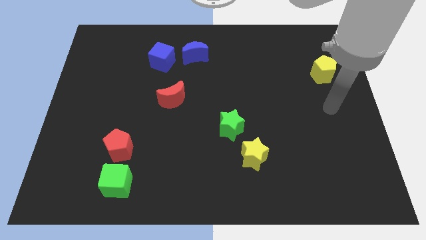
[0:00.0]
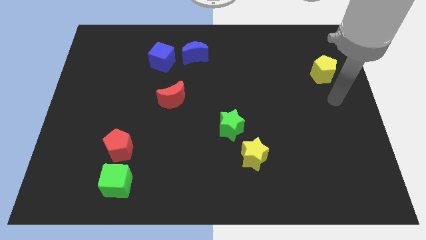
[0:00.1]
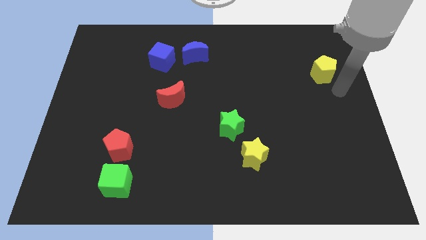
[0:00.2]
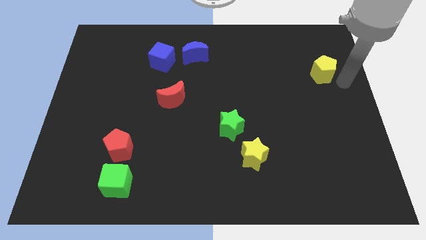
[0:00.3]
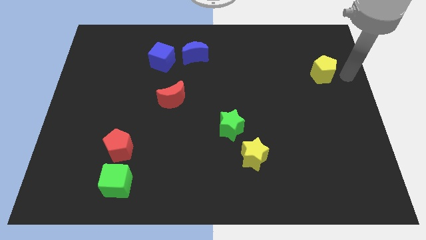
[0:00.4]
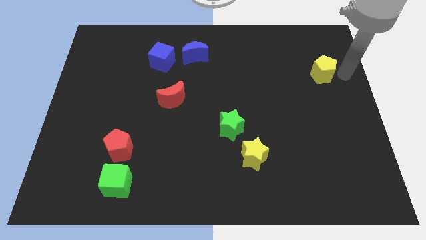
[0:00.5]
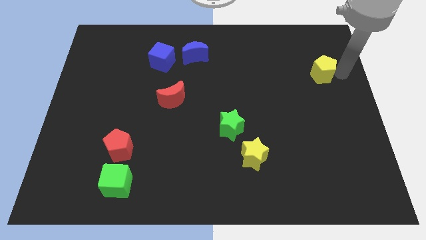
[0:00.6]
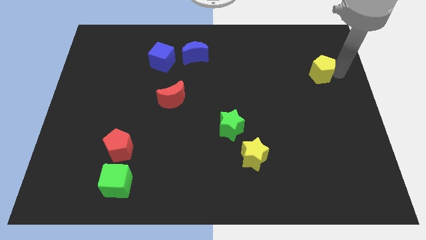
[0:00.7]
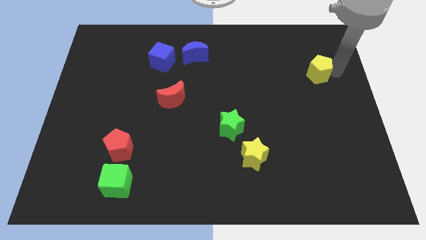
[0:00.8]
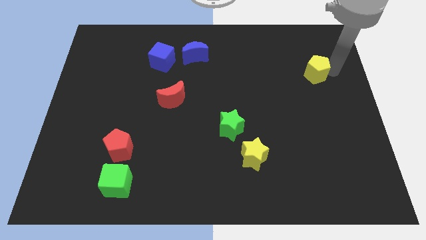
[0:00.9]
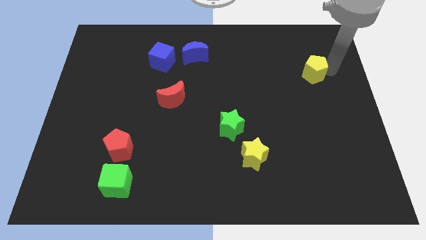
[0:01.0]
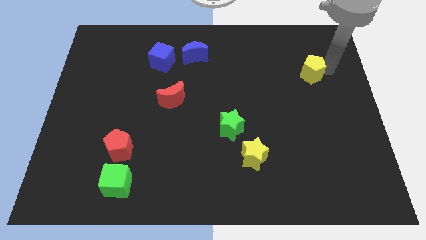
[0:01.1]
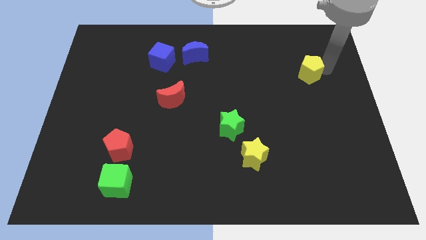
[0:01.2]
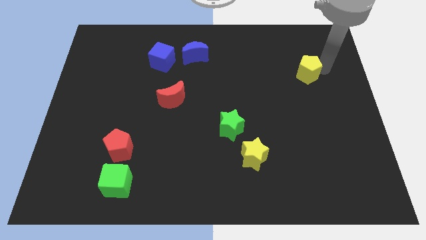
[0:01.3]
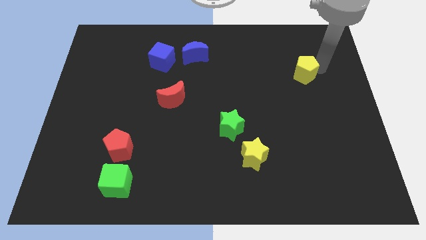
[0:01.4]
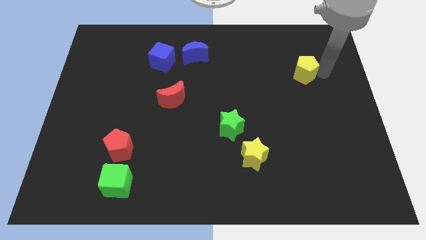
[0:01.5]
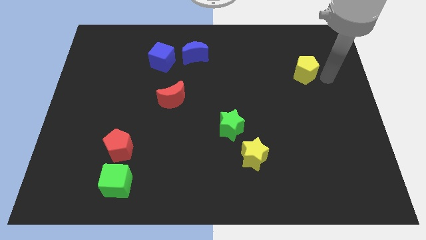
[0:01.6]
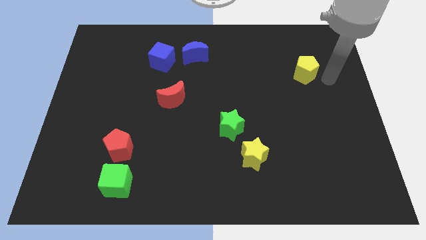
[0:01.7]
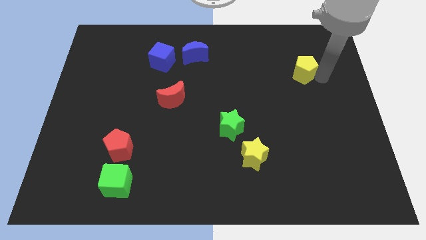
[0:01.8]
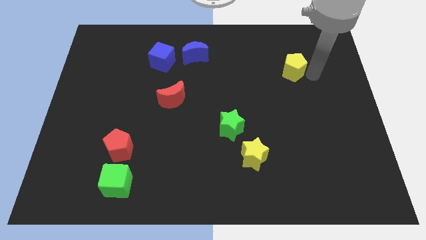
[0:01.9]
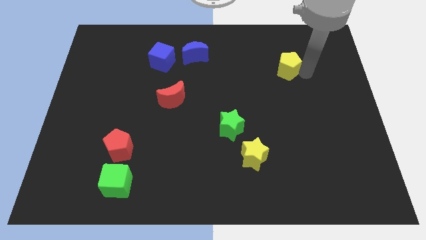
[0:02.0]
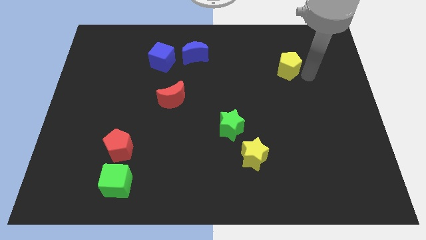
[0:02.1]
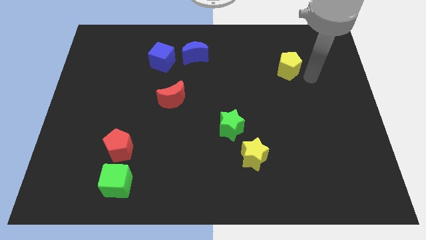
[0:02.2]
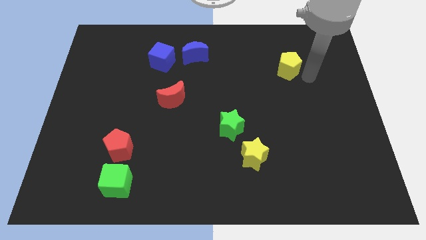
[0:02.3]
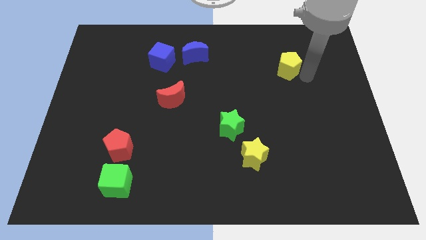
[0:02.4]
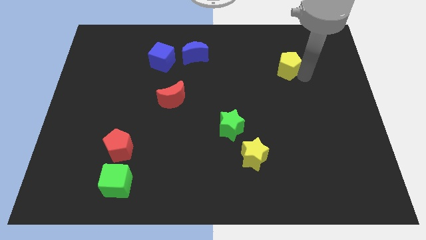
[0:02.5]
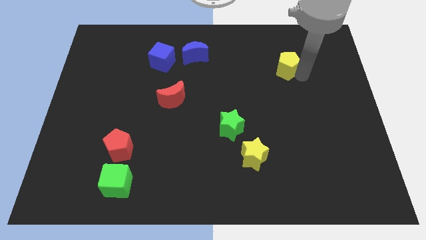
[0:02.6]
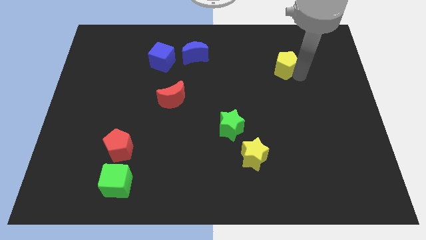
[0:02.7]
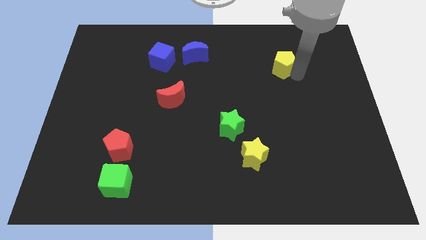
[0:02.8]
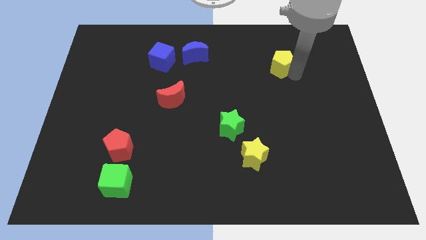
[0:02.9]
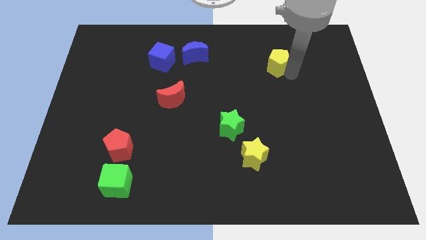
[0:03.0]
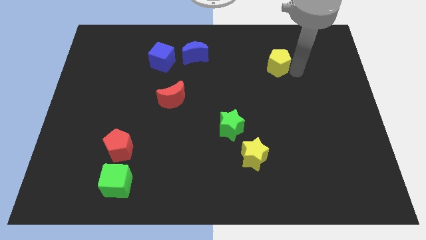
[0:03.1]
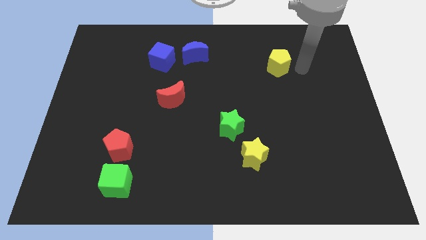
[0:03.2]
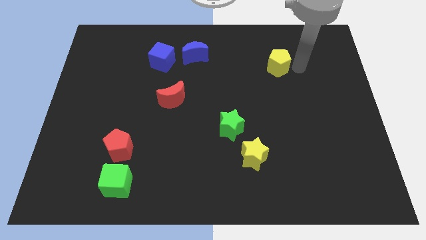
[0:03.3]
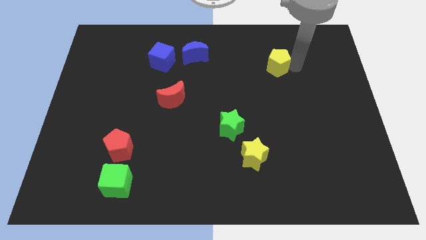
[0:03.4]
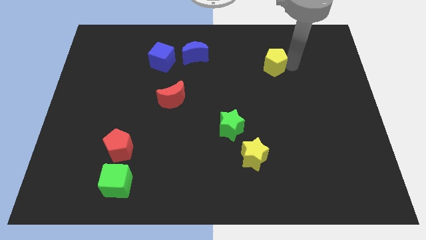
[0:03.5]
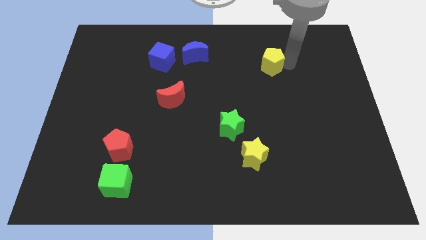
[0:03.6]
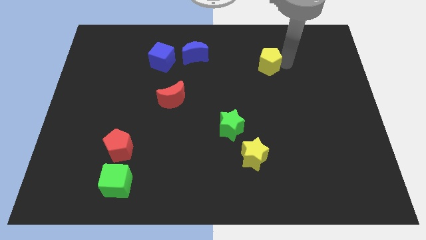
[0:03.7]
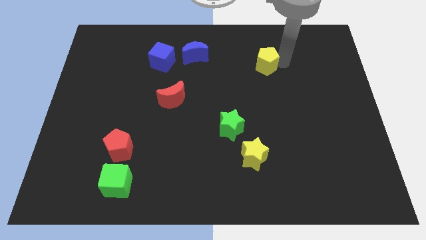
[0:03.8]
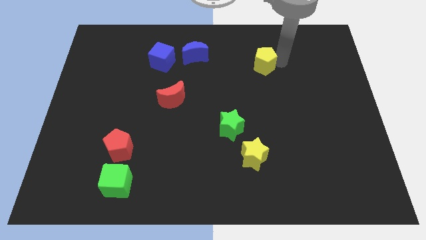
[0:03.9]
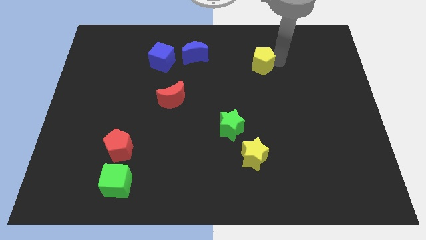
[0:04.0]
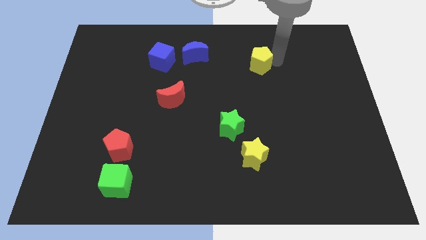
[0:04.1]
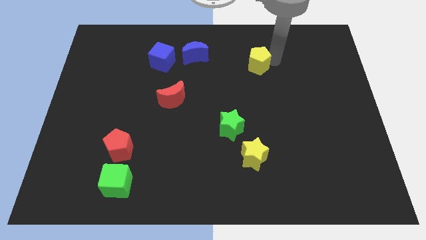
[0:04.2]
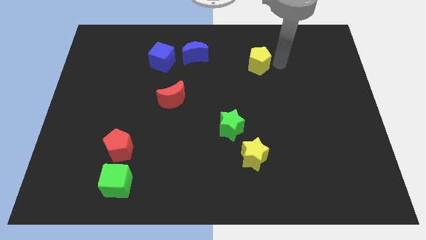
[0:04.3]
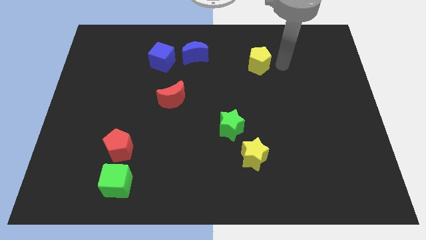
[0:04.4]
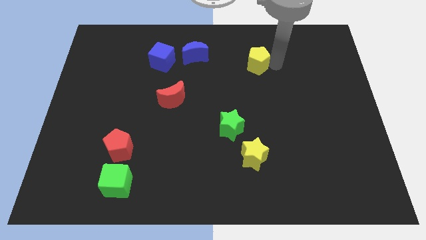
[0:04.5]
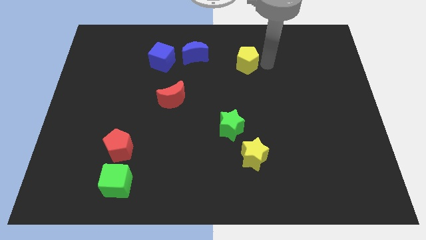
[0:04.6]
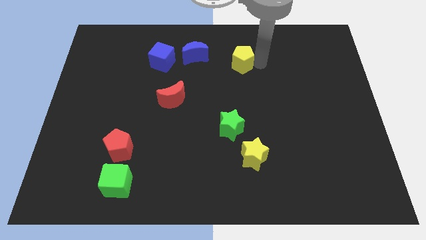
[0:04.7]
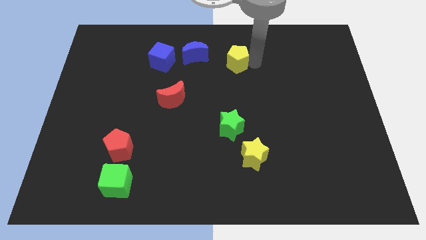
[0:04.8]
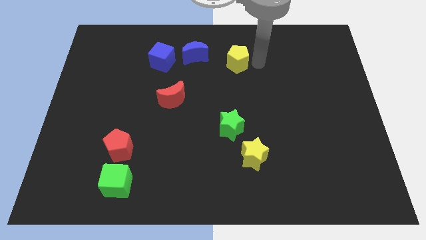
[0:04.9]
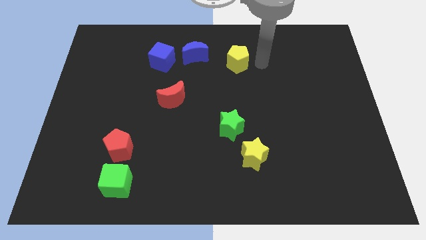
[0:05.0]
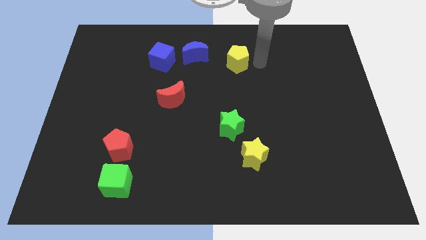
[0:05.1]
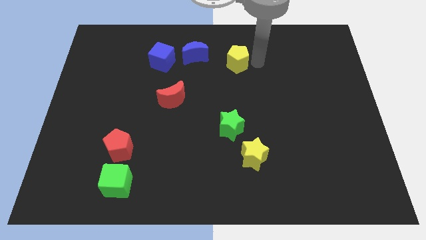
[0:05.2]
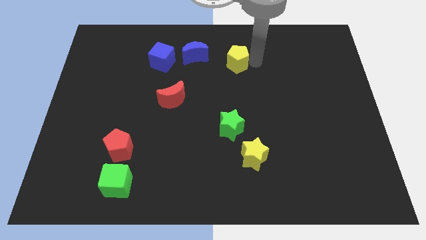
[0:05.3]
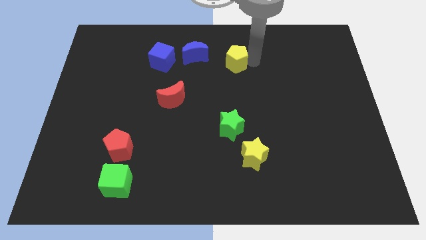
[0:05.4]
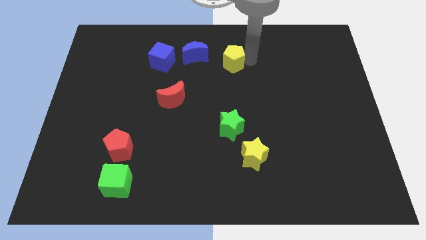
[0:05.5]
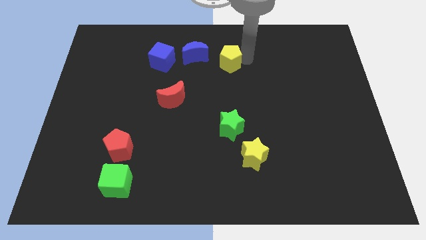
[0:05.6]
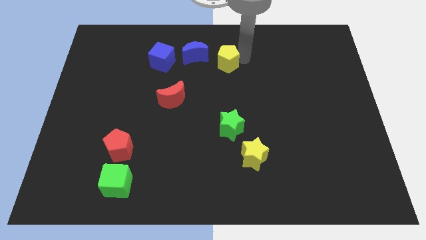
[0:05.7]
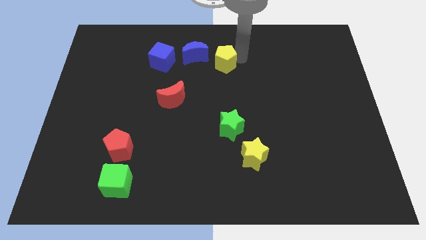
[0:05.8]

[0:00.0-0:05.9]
move the yellow pentagon to the right of the blue cube

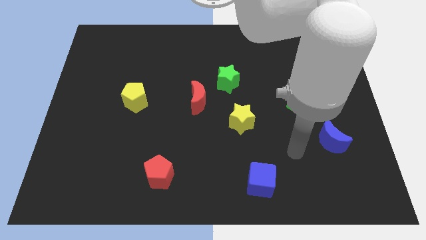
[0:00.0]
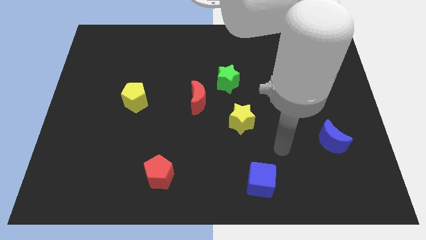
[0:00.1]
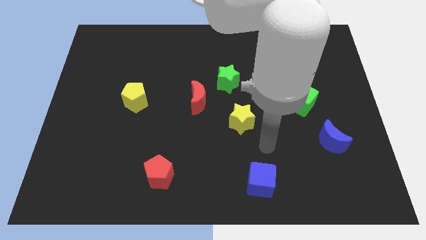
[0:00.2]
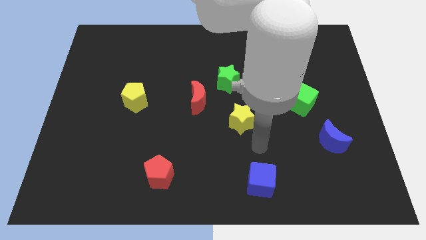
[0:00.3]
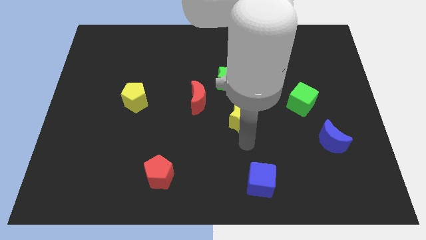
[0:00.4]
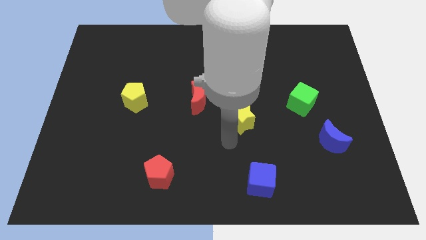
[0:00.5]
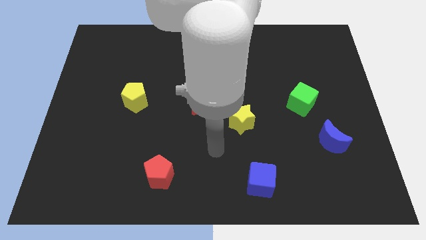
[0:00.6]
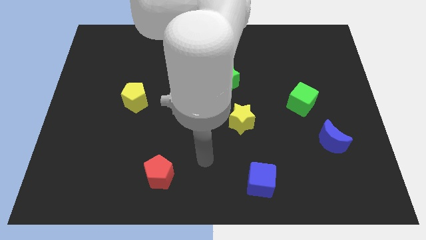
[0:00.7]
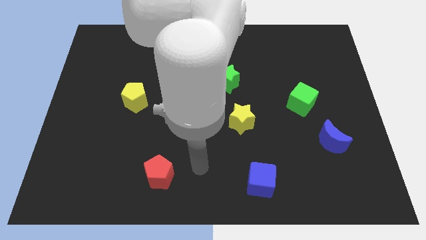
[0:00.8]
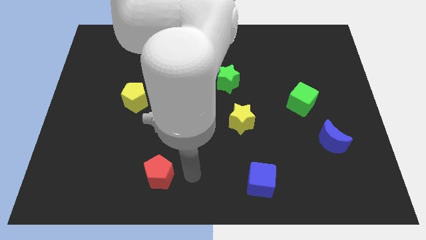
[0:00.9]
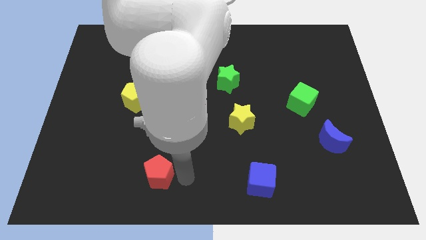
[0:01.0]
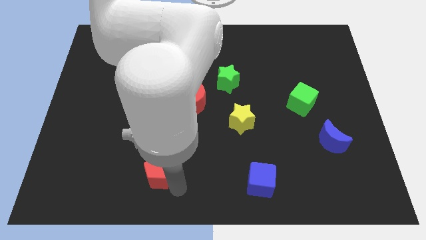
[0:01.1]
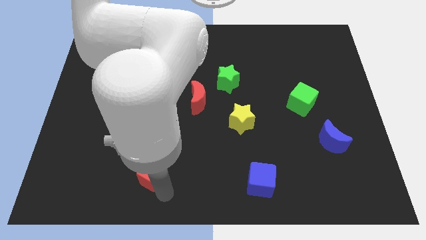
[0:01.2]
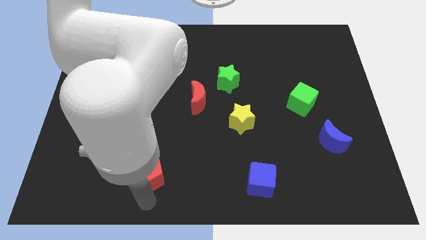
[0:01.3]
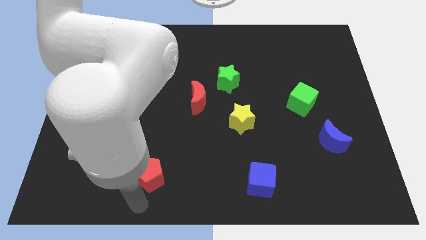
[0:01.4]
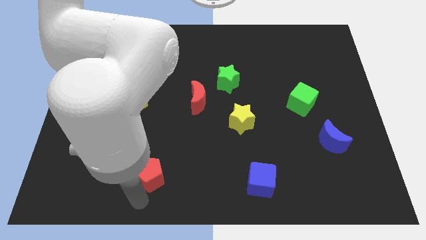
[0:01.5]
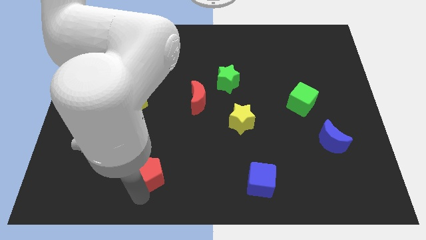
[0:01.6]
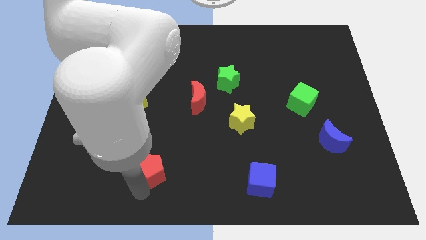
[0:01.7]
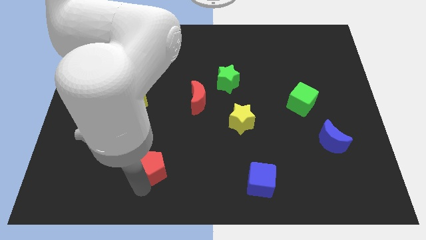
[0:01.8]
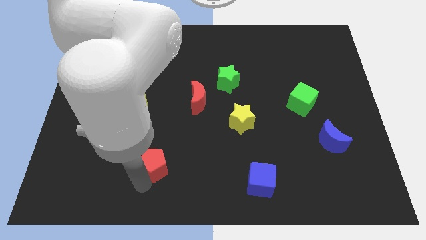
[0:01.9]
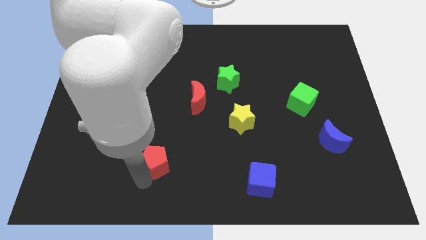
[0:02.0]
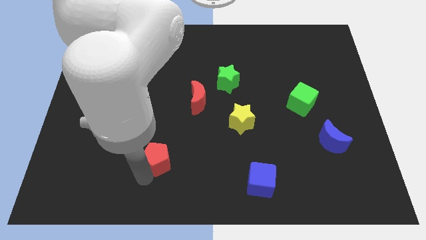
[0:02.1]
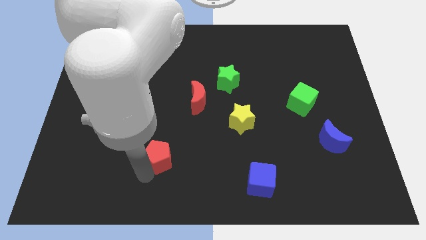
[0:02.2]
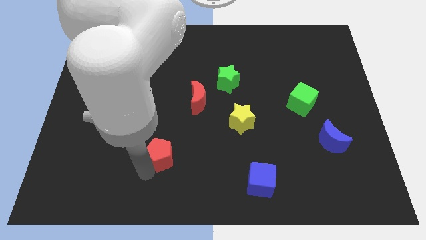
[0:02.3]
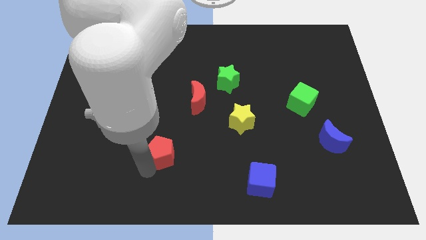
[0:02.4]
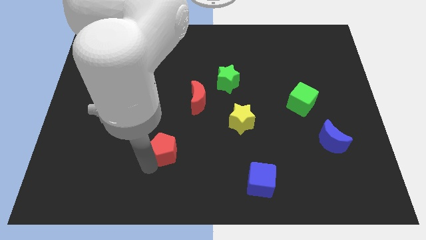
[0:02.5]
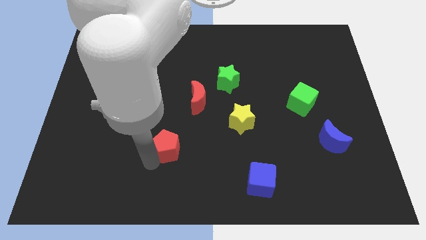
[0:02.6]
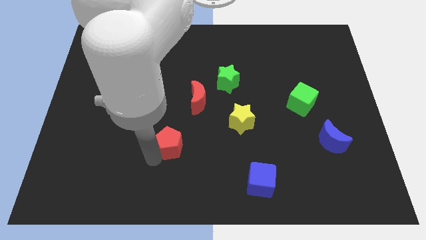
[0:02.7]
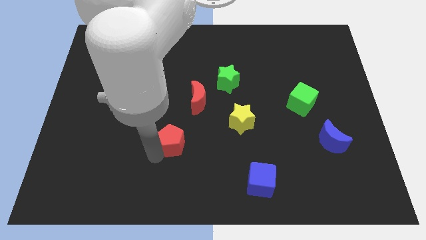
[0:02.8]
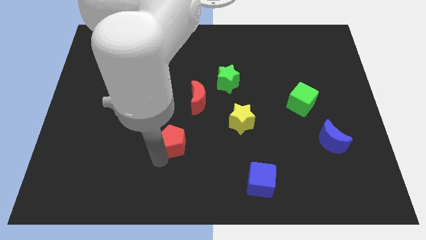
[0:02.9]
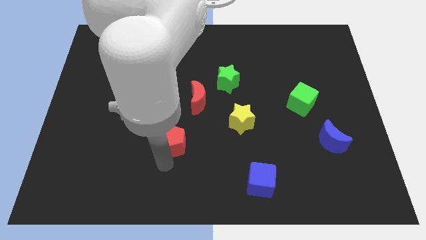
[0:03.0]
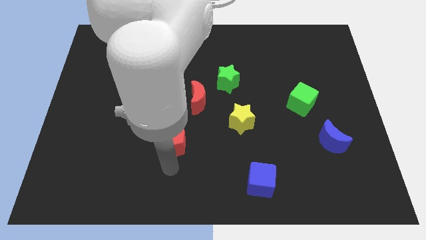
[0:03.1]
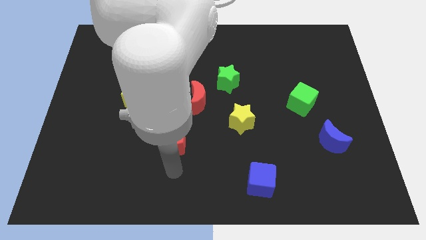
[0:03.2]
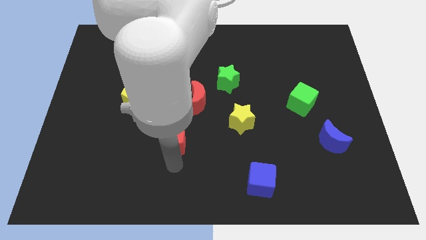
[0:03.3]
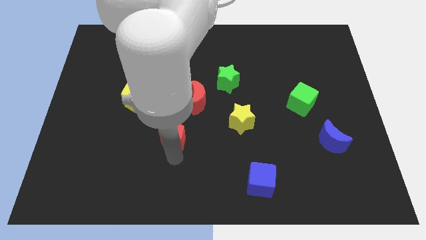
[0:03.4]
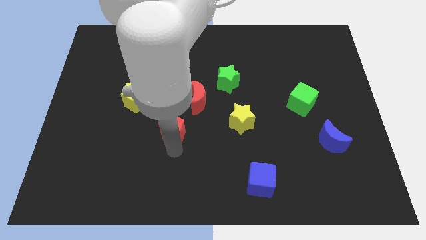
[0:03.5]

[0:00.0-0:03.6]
slide the red pentagon diagonally down and to the left of the red moon
